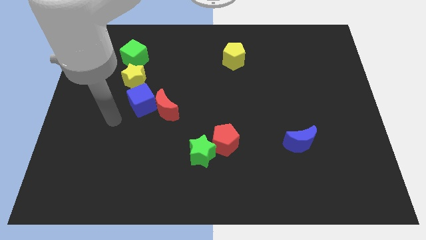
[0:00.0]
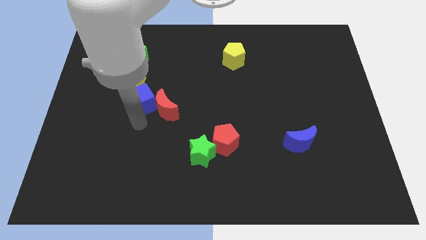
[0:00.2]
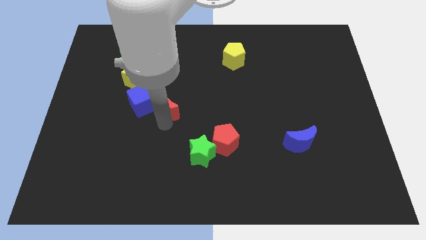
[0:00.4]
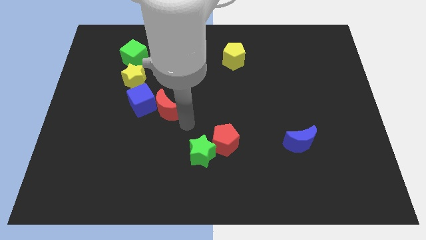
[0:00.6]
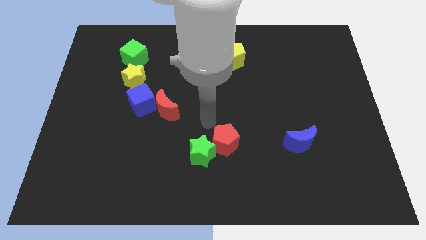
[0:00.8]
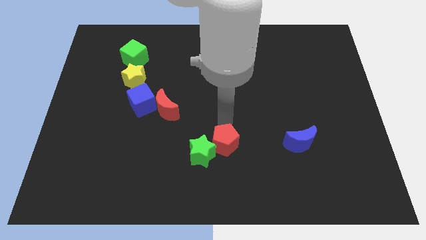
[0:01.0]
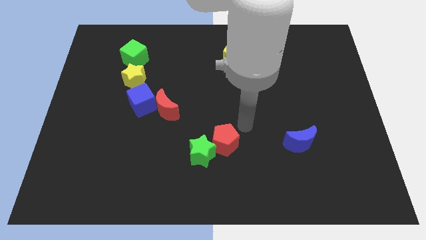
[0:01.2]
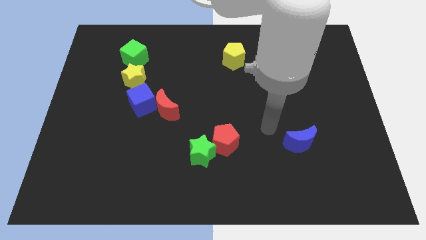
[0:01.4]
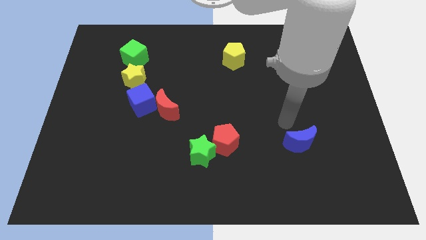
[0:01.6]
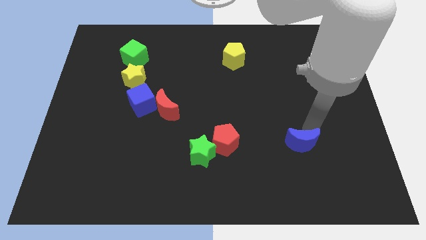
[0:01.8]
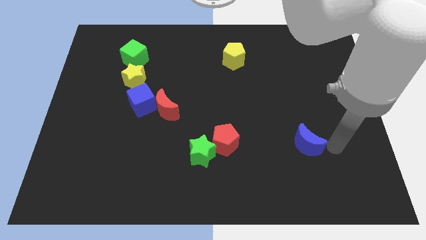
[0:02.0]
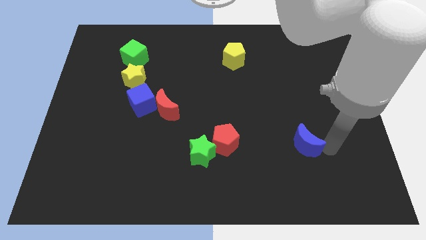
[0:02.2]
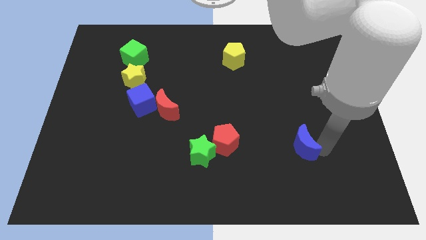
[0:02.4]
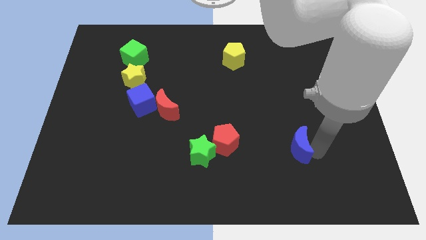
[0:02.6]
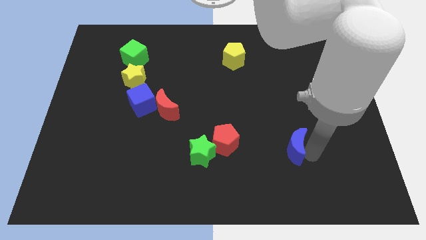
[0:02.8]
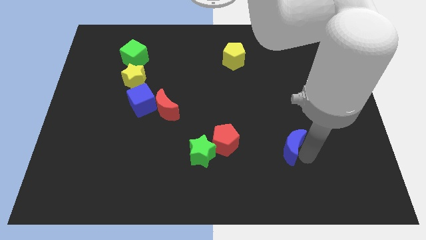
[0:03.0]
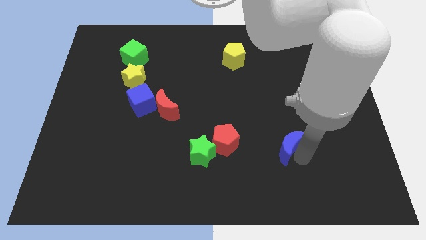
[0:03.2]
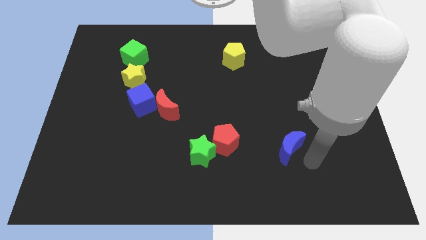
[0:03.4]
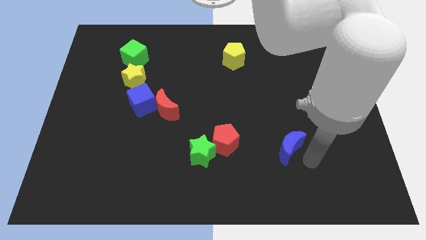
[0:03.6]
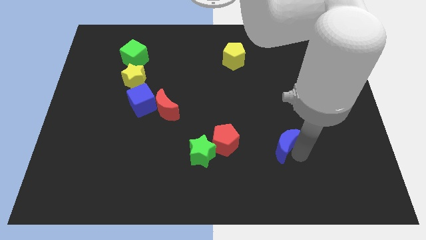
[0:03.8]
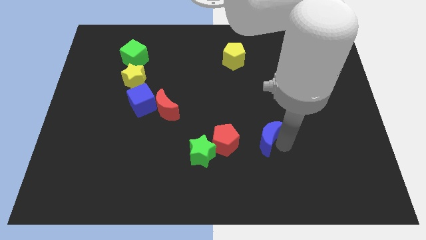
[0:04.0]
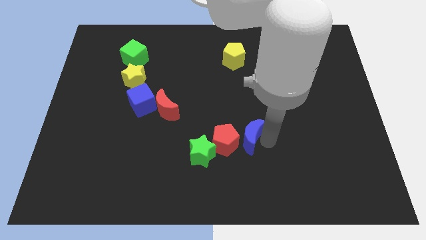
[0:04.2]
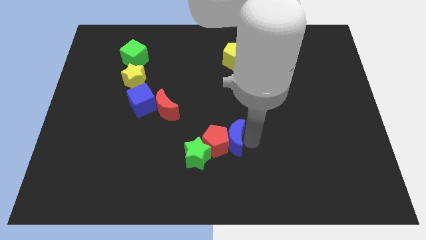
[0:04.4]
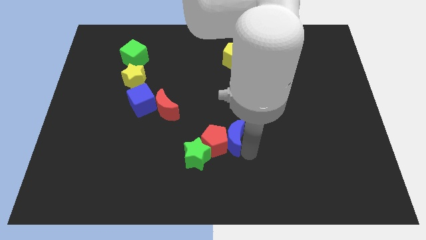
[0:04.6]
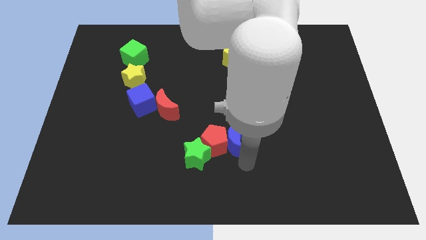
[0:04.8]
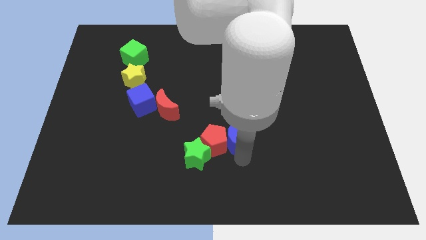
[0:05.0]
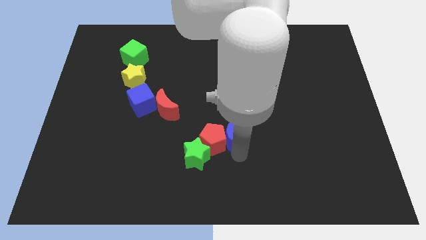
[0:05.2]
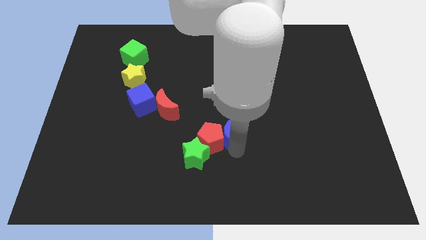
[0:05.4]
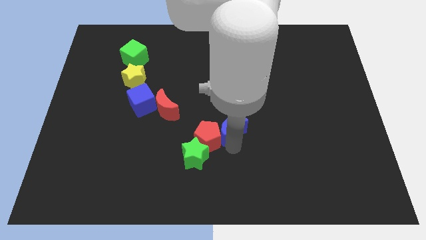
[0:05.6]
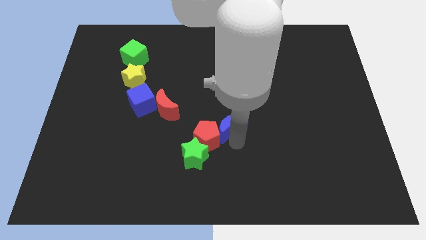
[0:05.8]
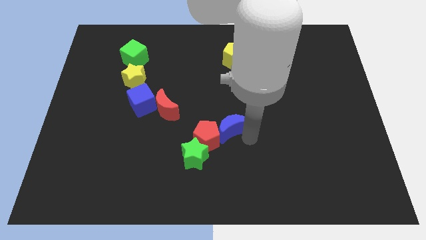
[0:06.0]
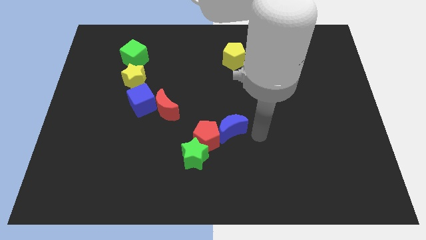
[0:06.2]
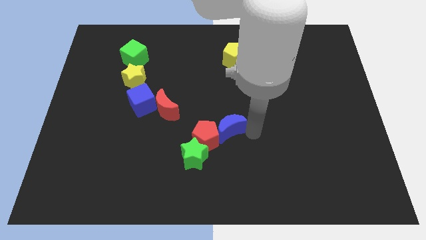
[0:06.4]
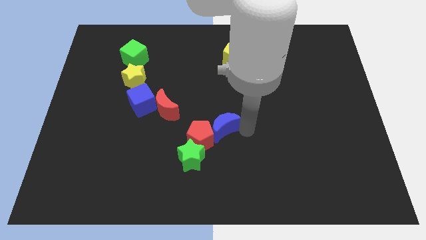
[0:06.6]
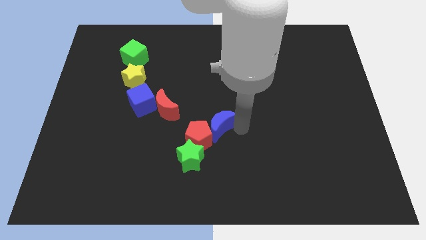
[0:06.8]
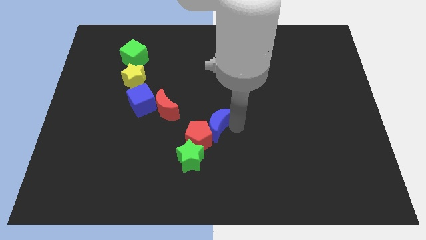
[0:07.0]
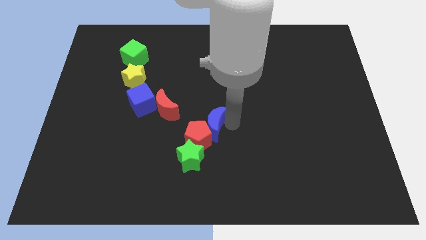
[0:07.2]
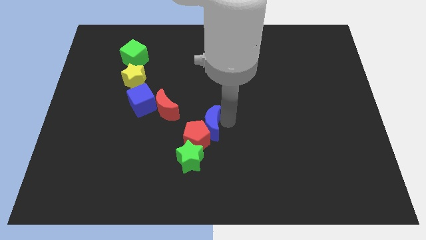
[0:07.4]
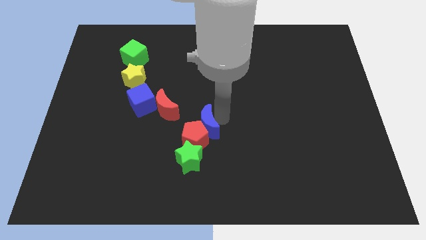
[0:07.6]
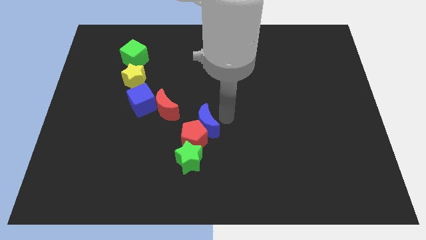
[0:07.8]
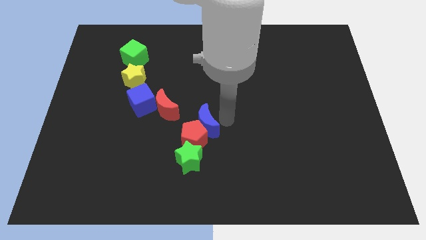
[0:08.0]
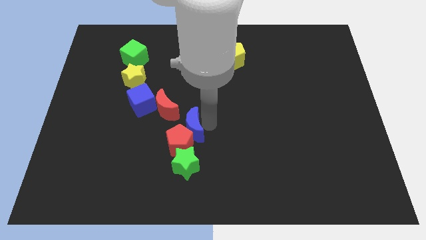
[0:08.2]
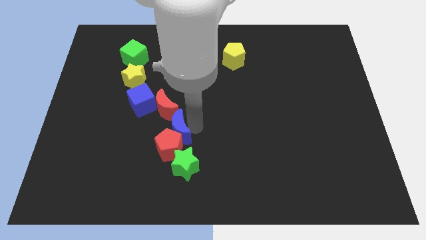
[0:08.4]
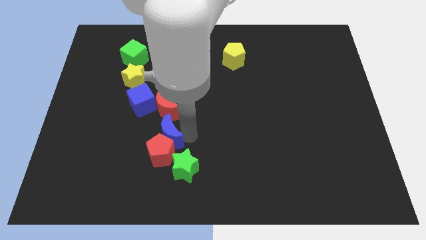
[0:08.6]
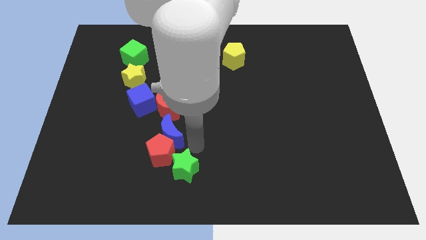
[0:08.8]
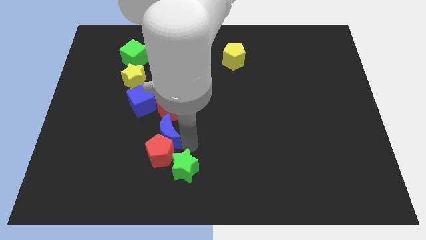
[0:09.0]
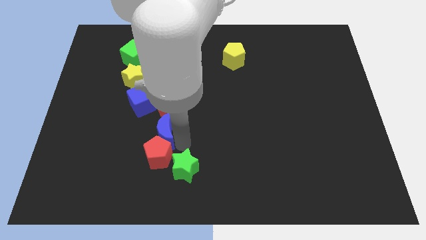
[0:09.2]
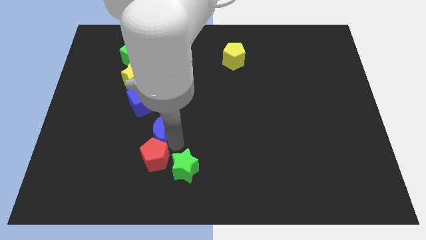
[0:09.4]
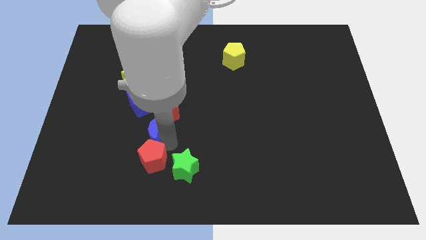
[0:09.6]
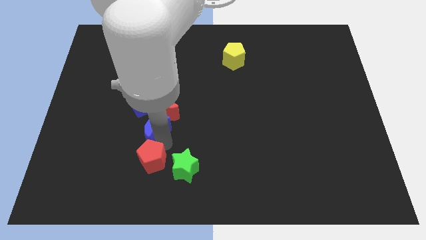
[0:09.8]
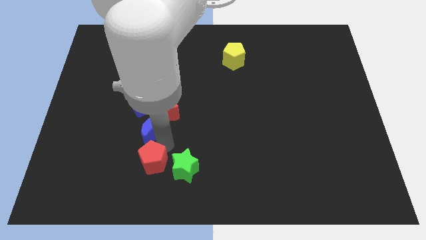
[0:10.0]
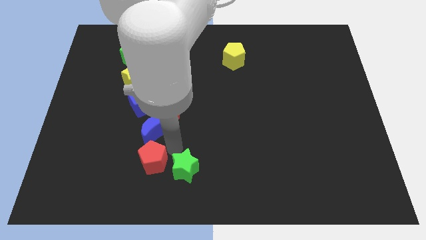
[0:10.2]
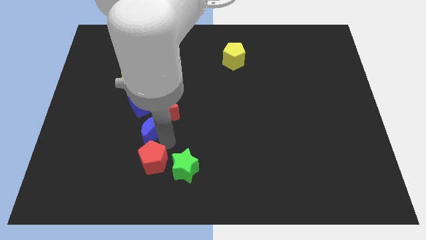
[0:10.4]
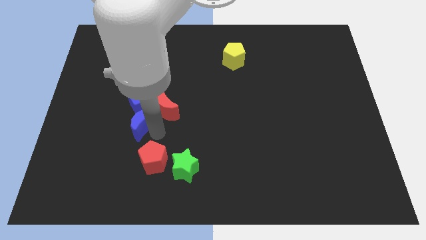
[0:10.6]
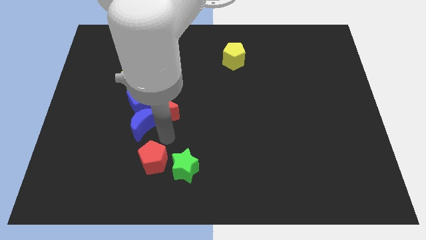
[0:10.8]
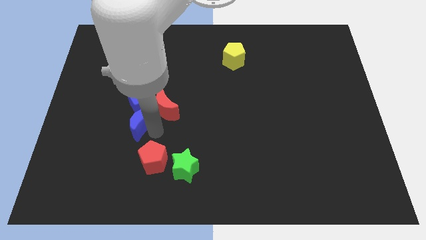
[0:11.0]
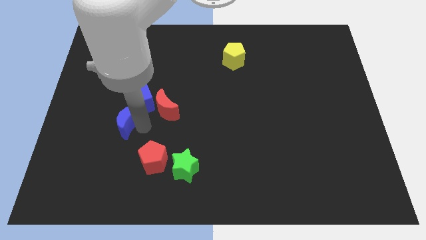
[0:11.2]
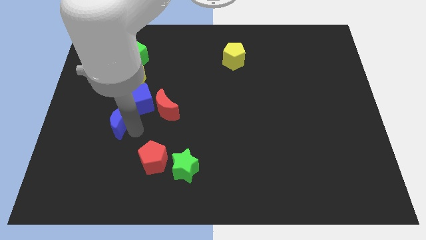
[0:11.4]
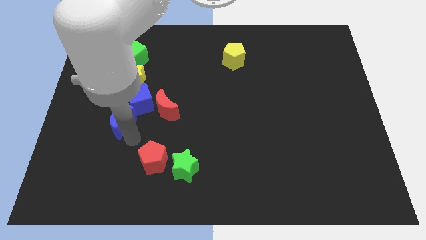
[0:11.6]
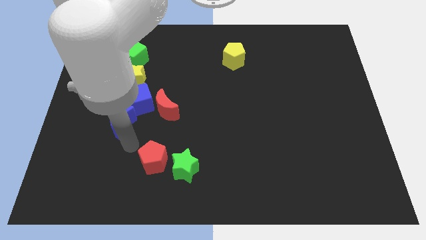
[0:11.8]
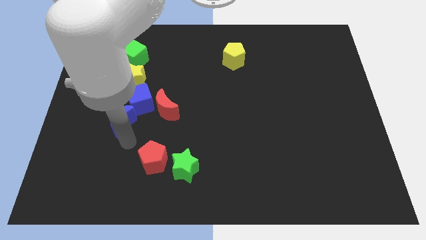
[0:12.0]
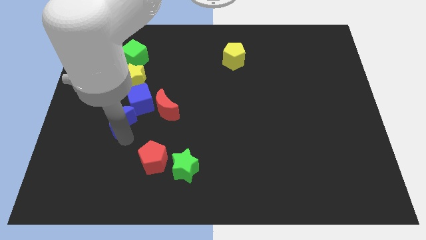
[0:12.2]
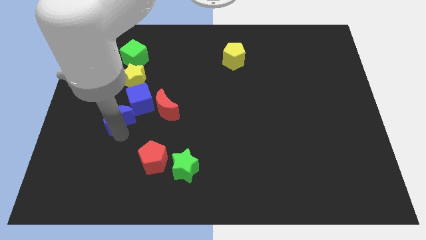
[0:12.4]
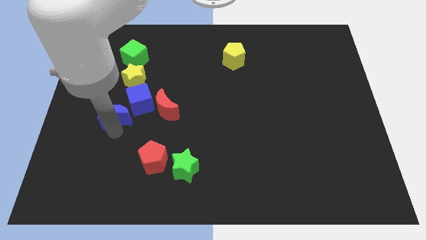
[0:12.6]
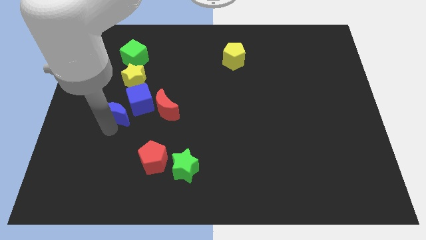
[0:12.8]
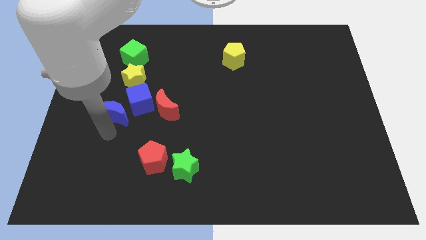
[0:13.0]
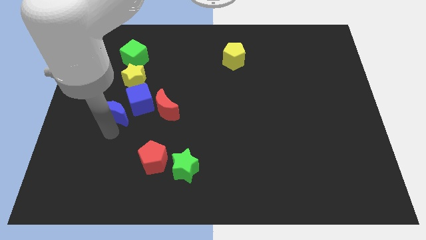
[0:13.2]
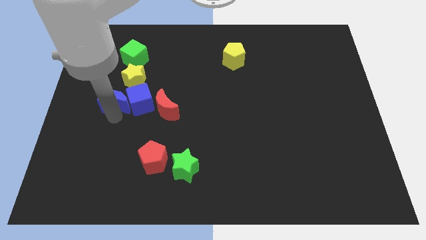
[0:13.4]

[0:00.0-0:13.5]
push the blue moon to the top left of the blue cube
